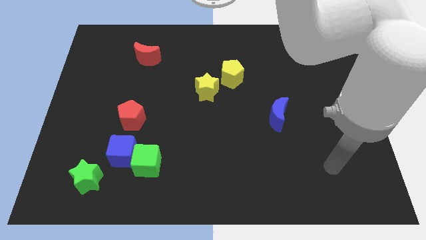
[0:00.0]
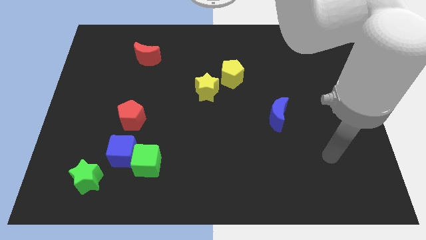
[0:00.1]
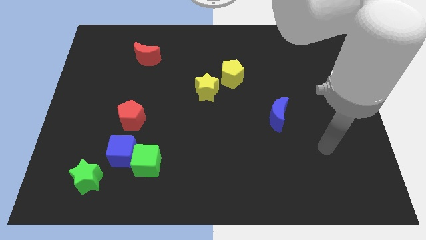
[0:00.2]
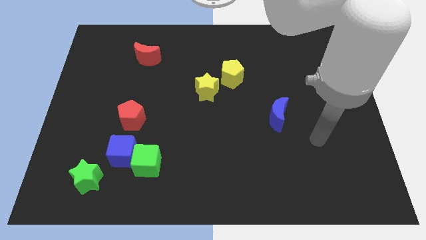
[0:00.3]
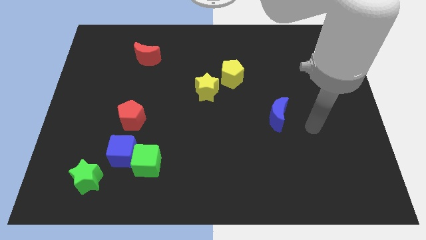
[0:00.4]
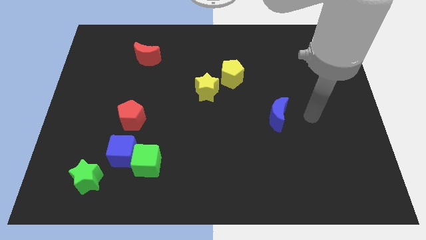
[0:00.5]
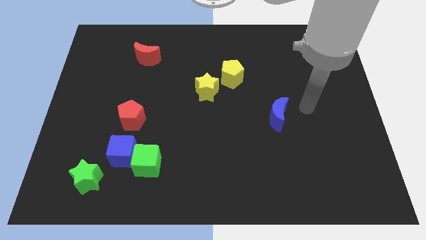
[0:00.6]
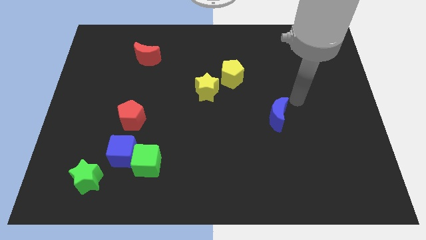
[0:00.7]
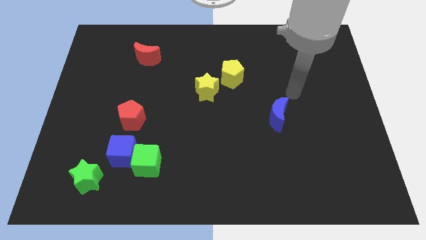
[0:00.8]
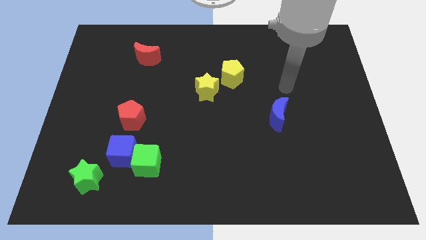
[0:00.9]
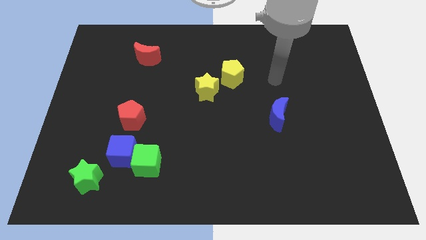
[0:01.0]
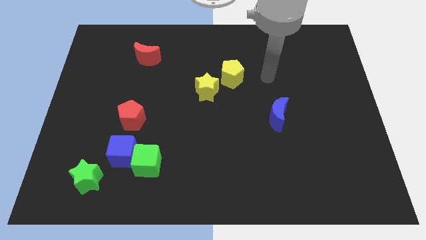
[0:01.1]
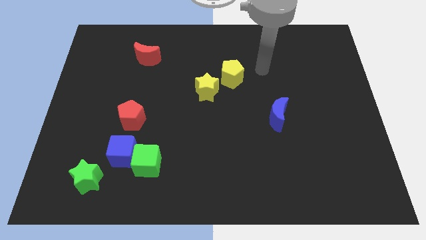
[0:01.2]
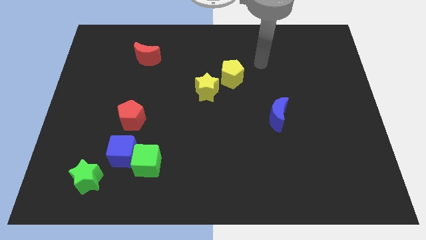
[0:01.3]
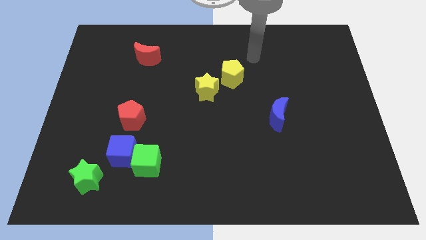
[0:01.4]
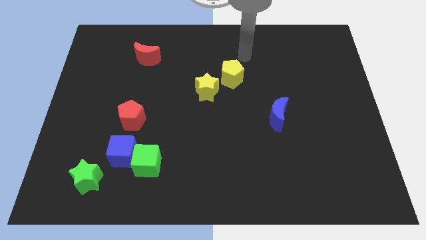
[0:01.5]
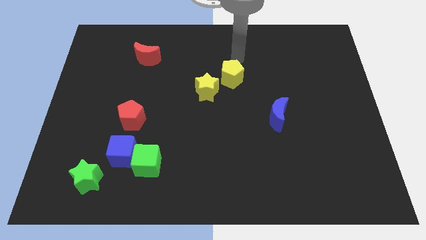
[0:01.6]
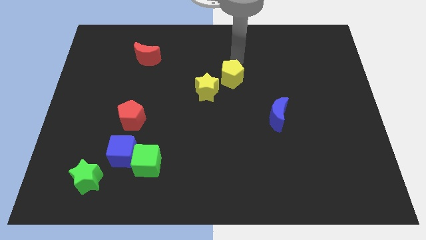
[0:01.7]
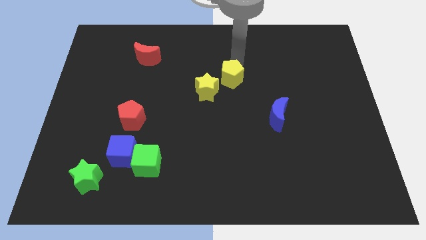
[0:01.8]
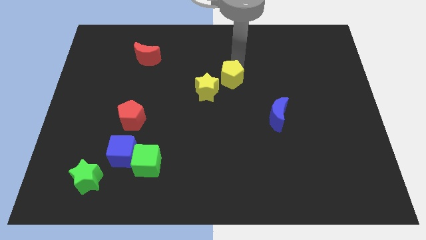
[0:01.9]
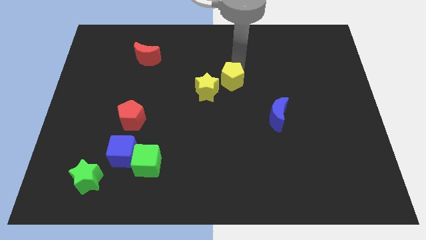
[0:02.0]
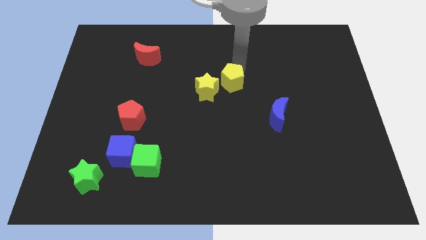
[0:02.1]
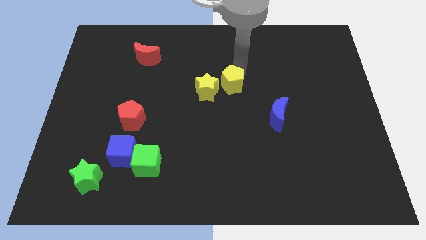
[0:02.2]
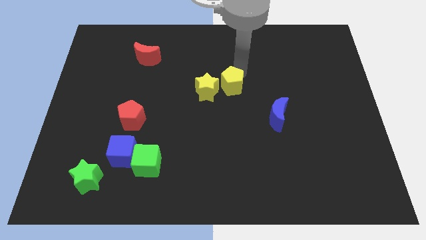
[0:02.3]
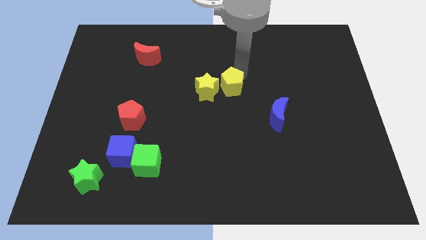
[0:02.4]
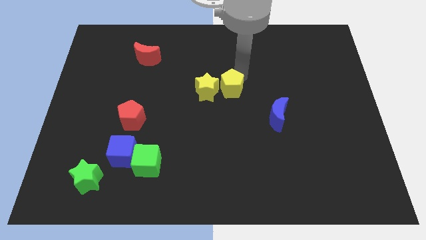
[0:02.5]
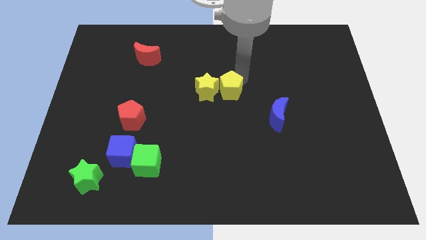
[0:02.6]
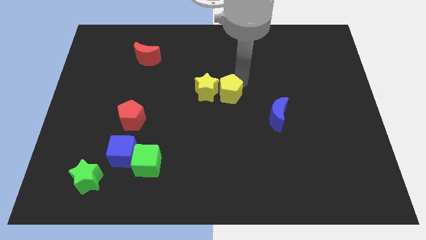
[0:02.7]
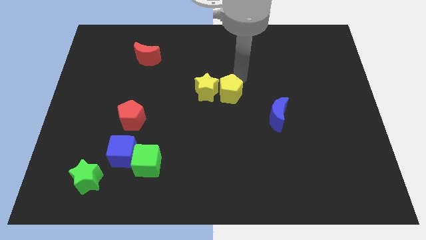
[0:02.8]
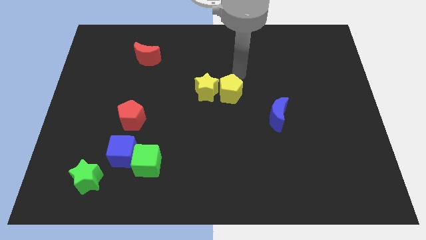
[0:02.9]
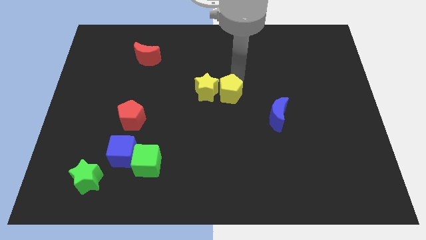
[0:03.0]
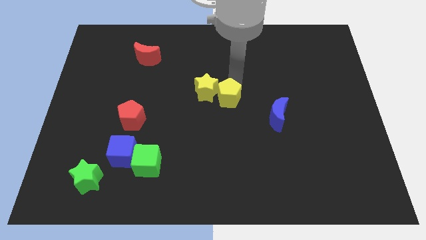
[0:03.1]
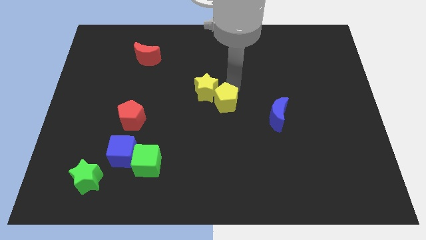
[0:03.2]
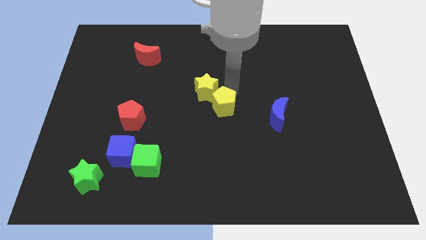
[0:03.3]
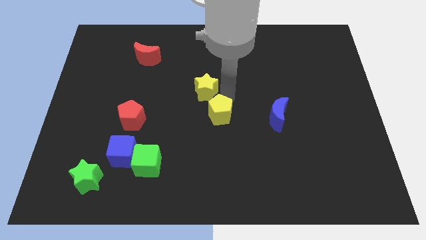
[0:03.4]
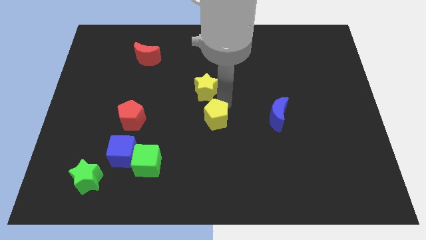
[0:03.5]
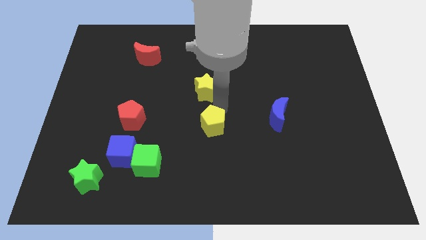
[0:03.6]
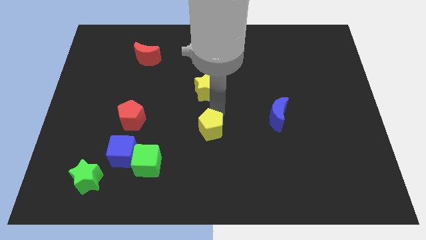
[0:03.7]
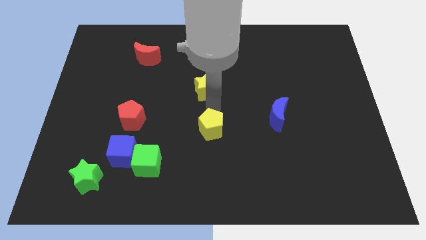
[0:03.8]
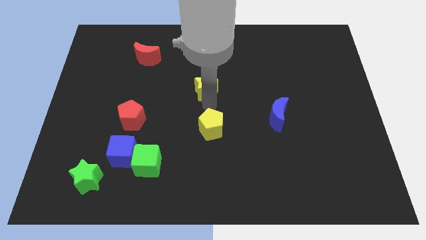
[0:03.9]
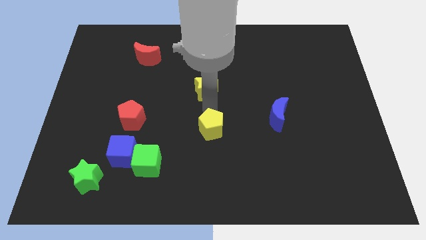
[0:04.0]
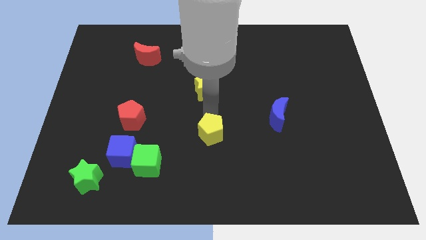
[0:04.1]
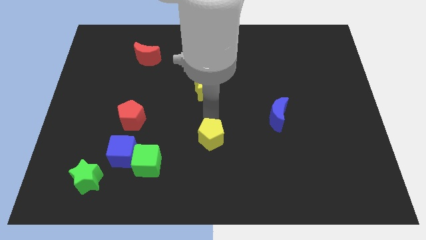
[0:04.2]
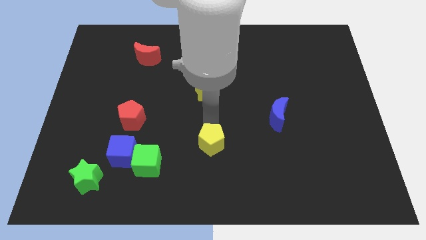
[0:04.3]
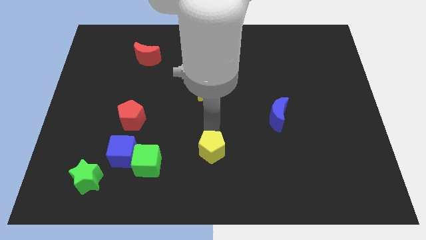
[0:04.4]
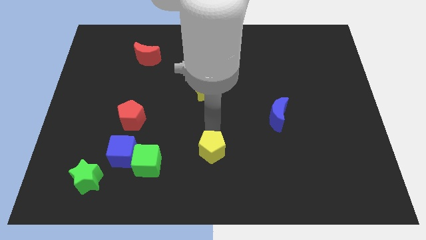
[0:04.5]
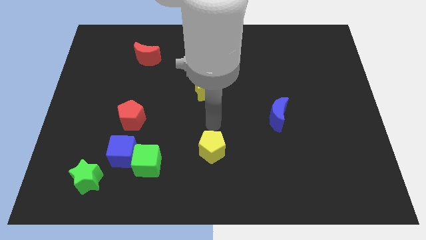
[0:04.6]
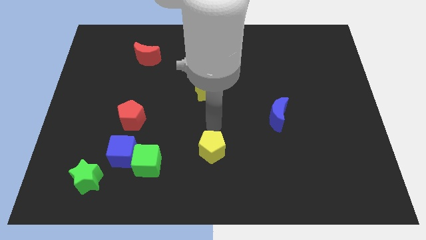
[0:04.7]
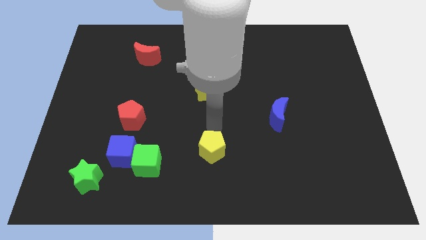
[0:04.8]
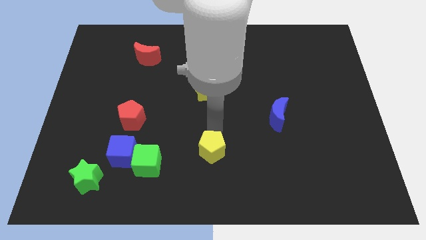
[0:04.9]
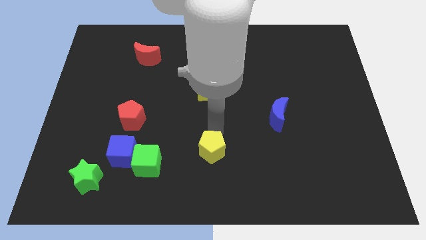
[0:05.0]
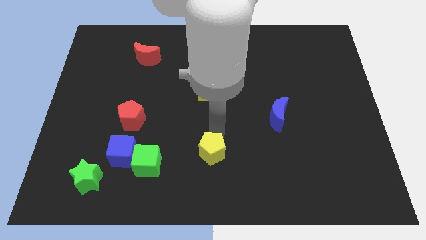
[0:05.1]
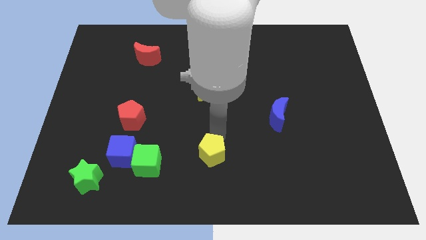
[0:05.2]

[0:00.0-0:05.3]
push the yellow pentagon to the bottom side

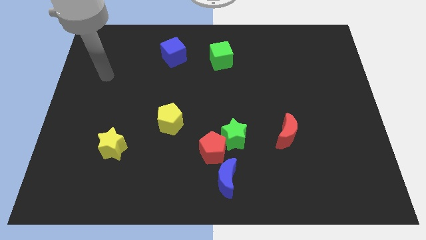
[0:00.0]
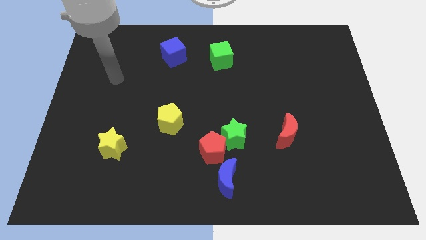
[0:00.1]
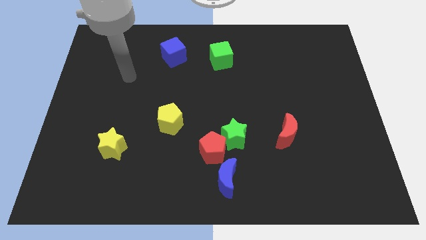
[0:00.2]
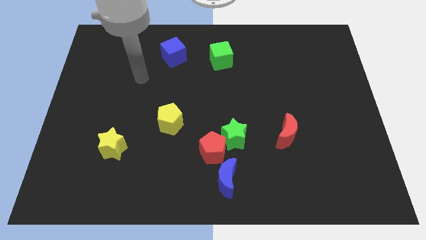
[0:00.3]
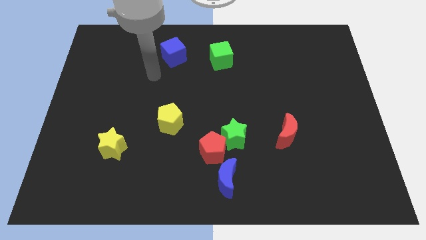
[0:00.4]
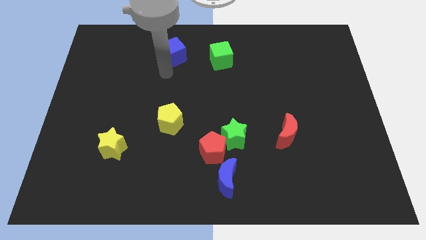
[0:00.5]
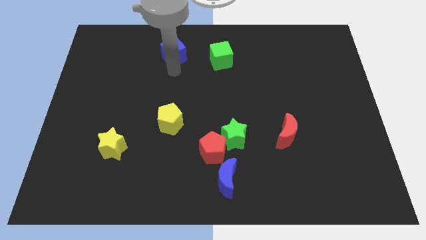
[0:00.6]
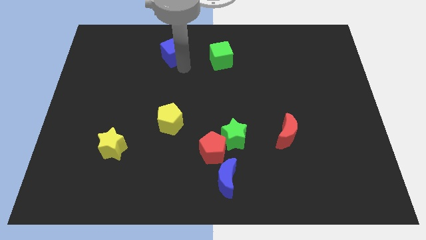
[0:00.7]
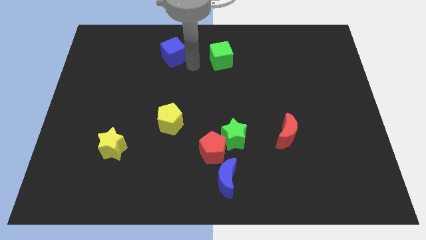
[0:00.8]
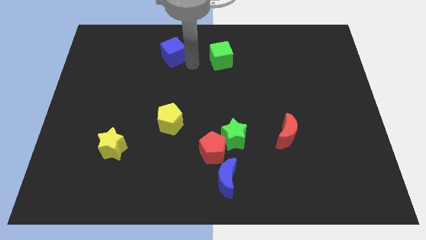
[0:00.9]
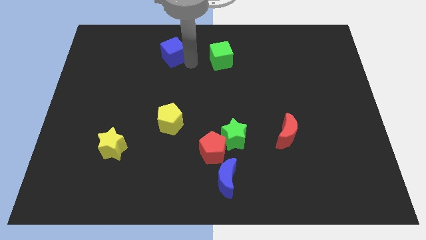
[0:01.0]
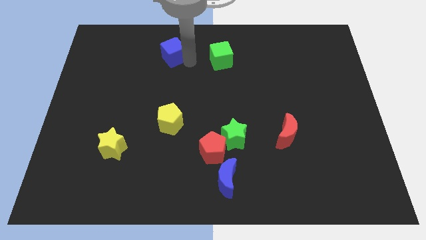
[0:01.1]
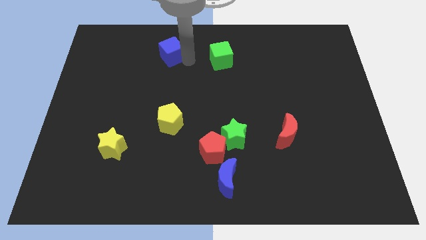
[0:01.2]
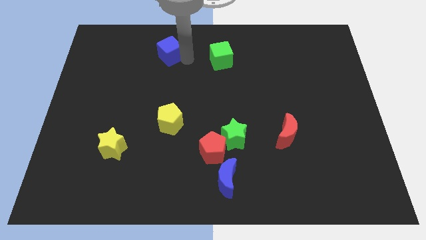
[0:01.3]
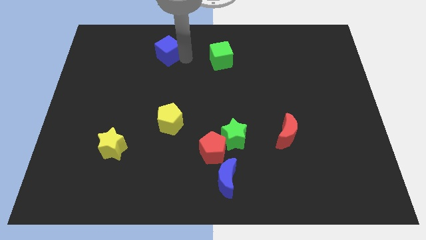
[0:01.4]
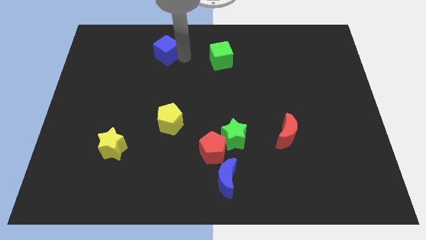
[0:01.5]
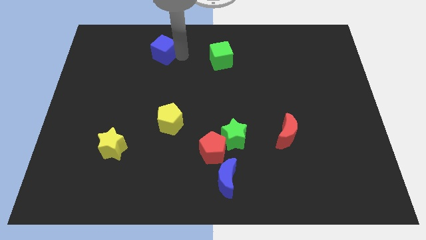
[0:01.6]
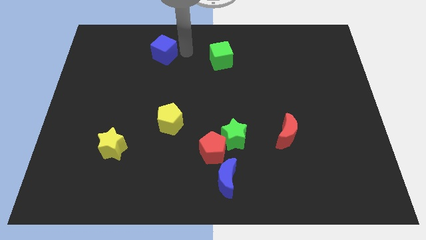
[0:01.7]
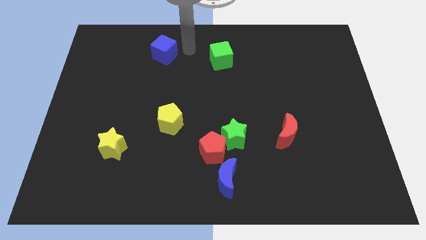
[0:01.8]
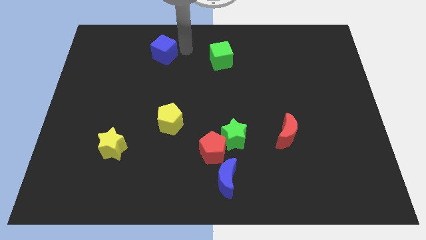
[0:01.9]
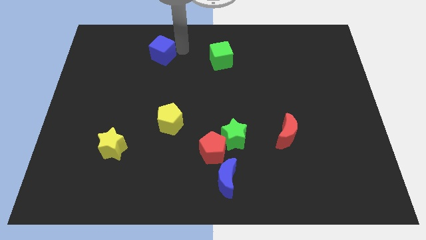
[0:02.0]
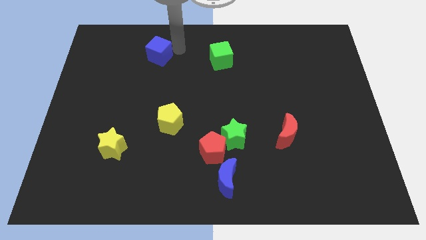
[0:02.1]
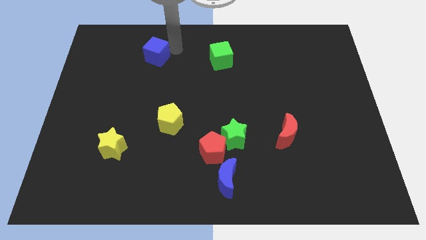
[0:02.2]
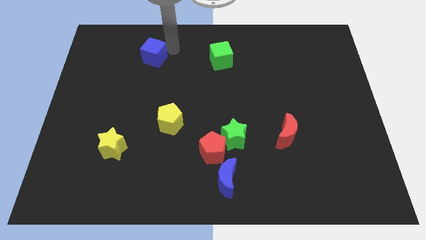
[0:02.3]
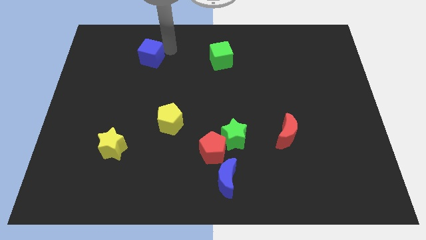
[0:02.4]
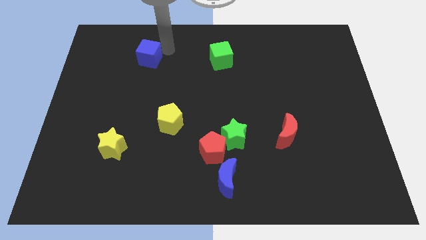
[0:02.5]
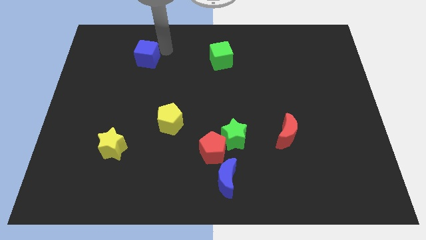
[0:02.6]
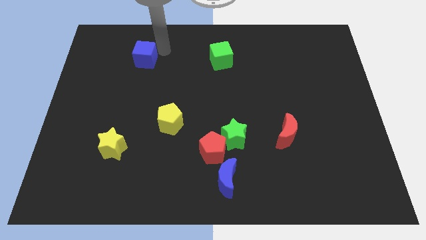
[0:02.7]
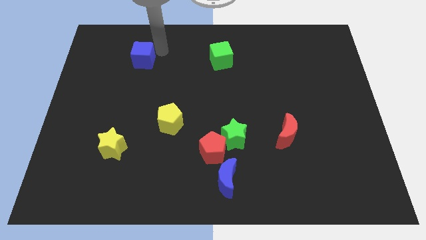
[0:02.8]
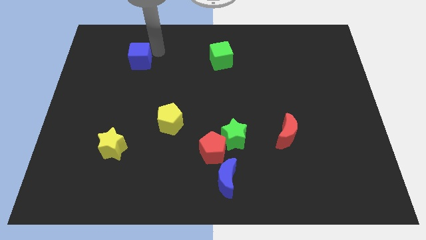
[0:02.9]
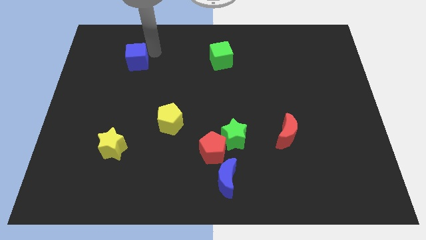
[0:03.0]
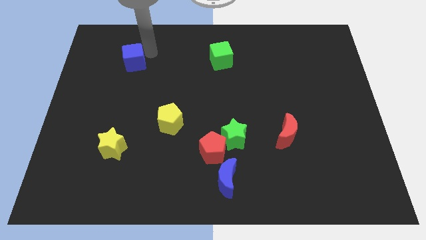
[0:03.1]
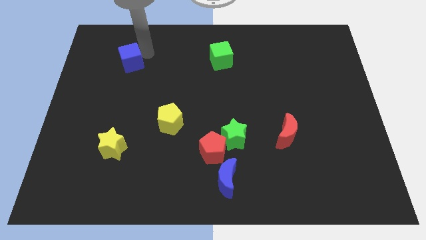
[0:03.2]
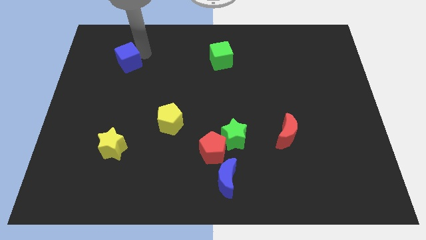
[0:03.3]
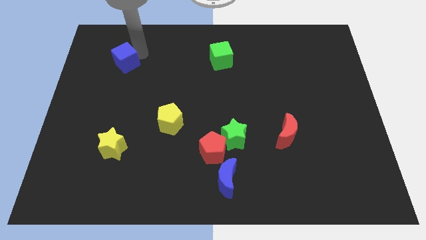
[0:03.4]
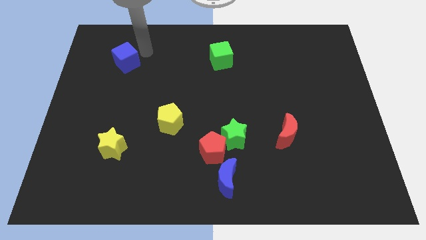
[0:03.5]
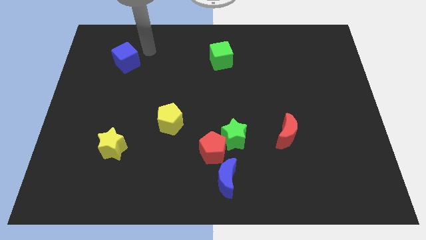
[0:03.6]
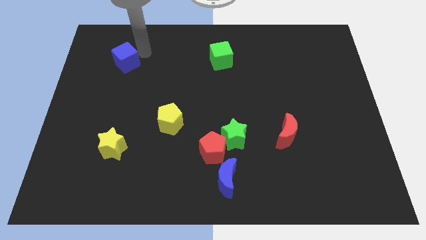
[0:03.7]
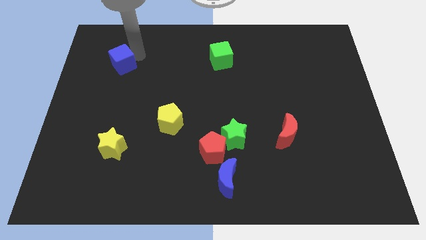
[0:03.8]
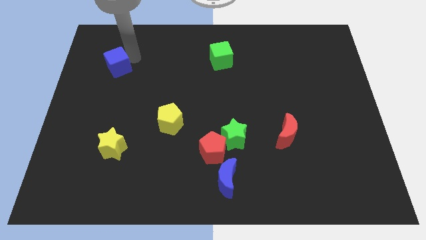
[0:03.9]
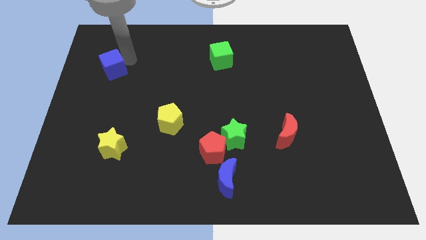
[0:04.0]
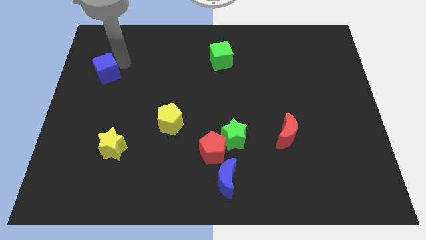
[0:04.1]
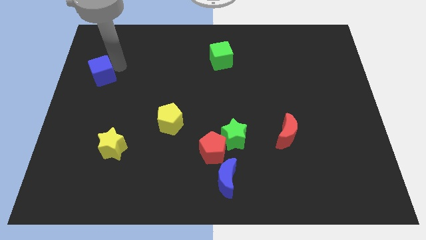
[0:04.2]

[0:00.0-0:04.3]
put the blue cube to the left side of the board
